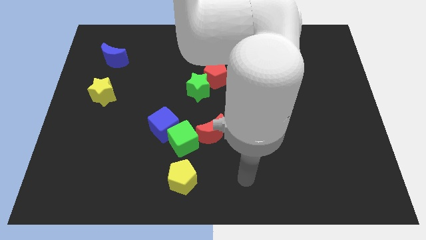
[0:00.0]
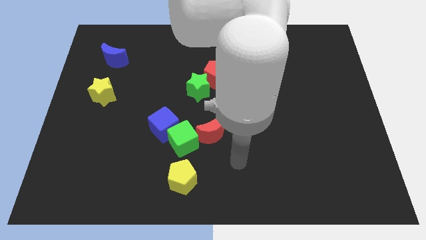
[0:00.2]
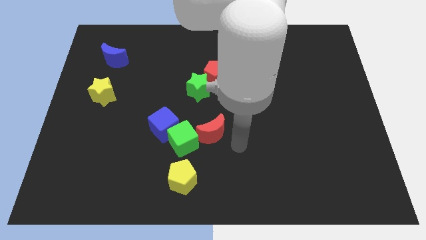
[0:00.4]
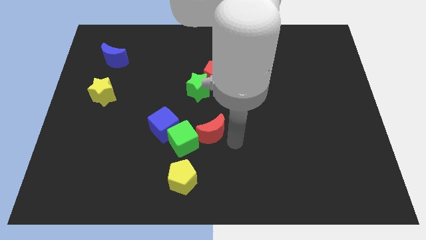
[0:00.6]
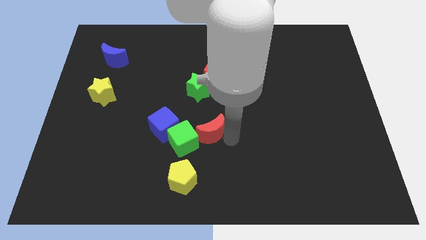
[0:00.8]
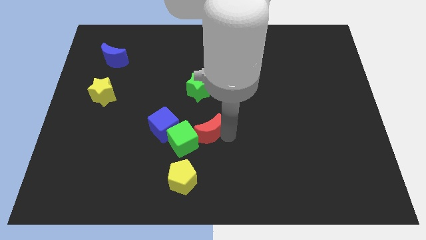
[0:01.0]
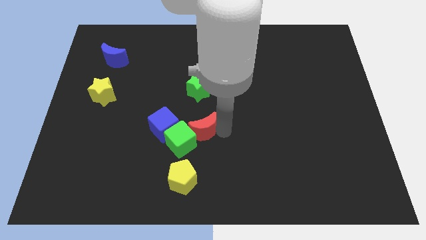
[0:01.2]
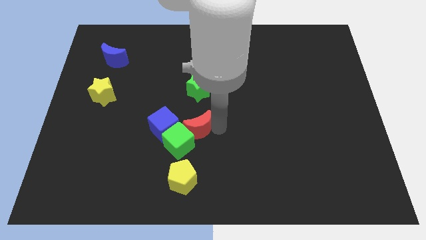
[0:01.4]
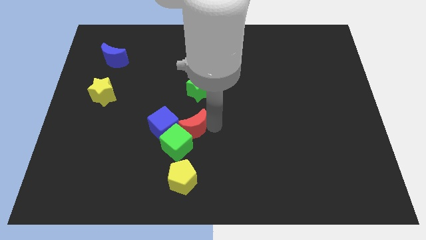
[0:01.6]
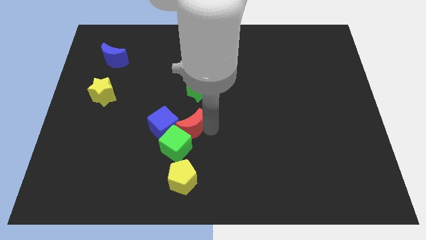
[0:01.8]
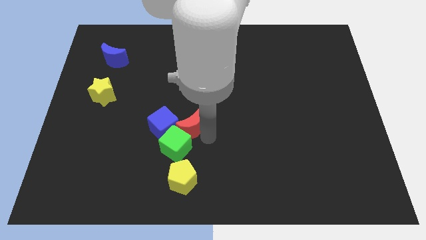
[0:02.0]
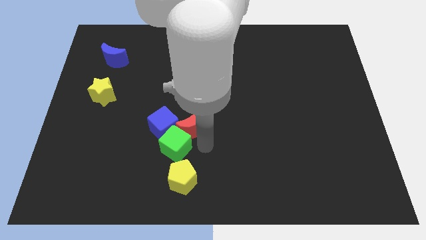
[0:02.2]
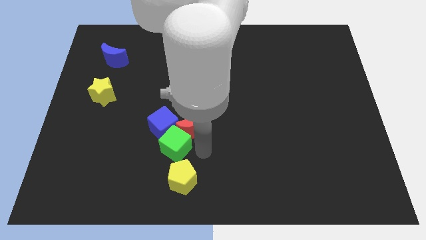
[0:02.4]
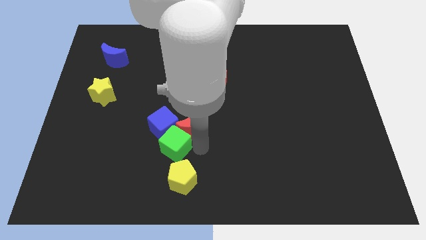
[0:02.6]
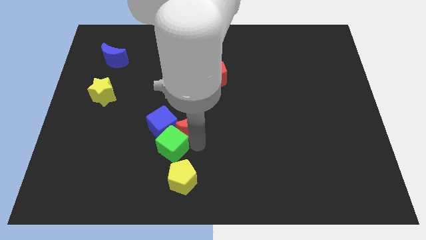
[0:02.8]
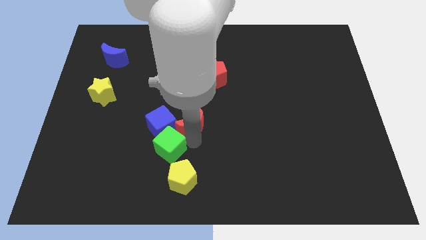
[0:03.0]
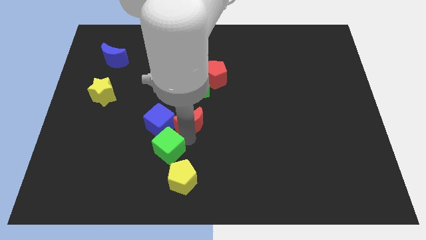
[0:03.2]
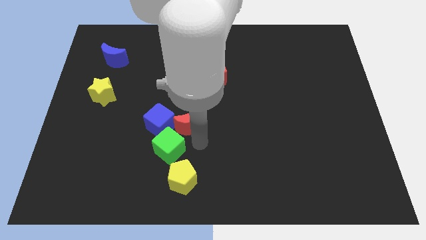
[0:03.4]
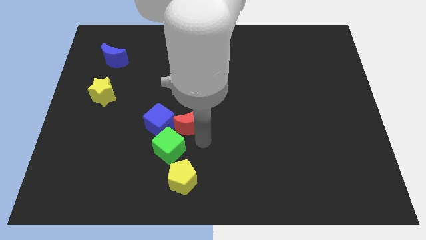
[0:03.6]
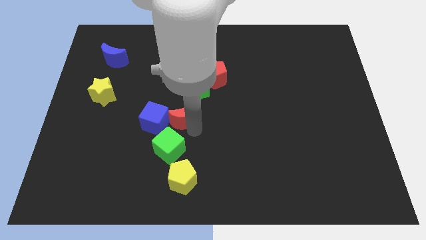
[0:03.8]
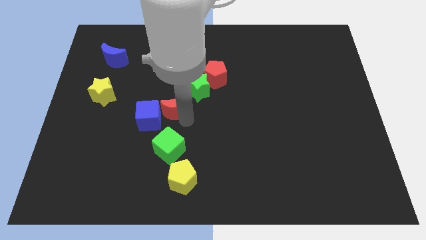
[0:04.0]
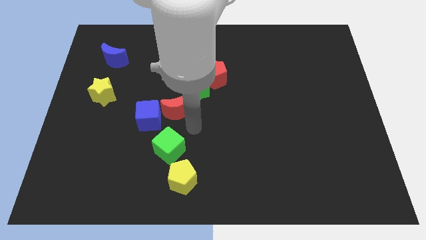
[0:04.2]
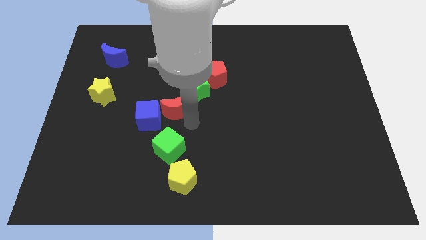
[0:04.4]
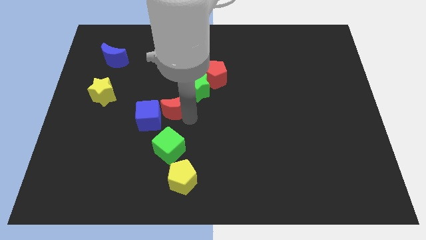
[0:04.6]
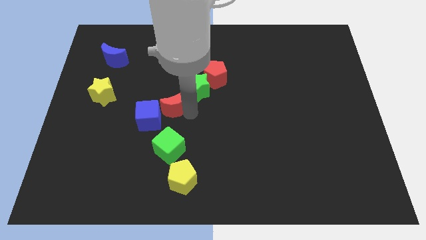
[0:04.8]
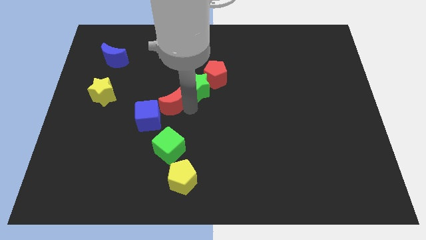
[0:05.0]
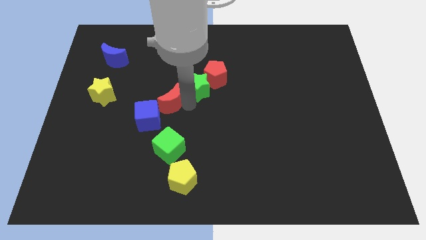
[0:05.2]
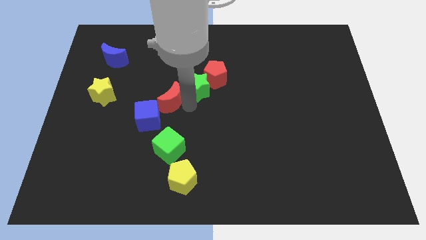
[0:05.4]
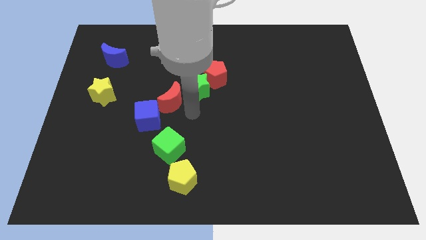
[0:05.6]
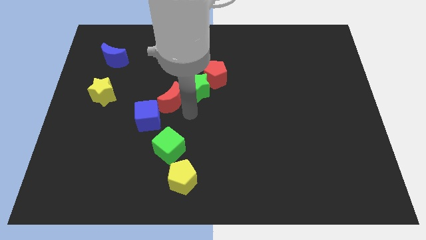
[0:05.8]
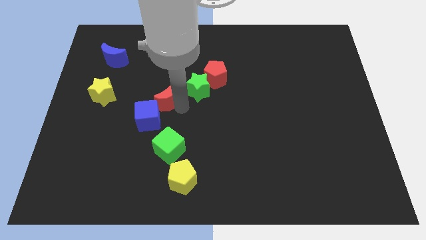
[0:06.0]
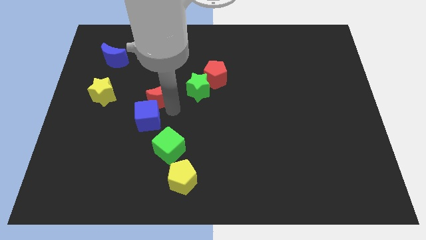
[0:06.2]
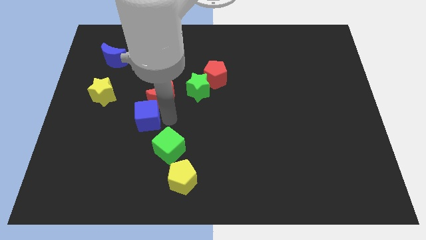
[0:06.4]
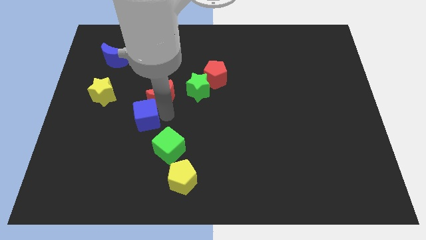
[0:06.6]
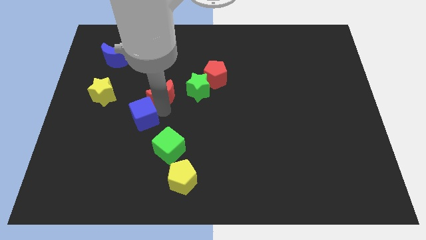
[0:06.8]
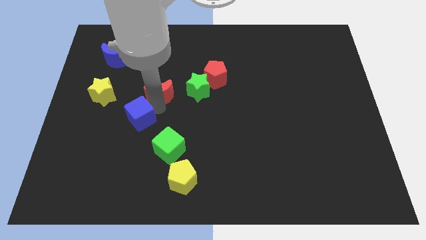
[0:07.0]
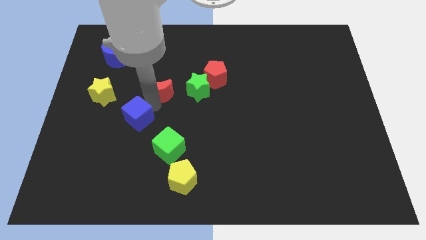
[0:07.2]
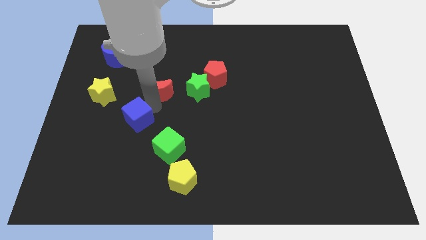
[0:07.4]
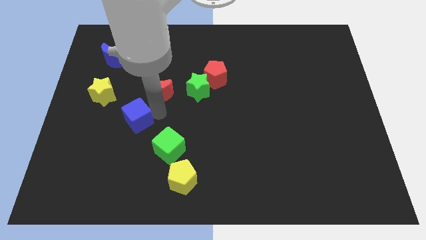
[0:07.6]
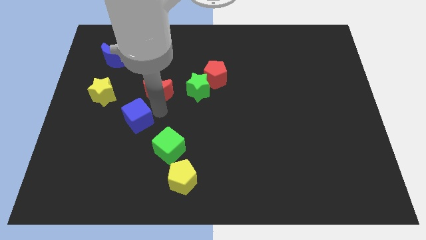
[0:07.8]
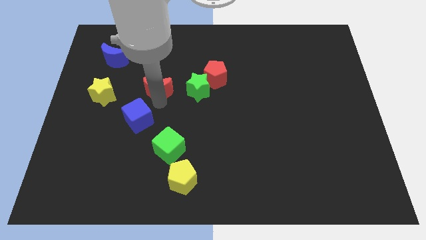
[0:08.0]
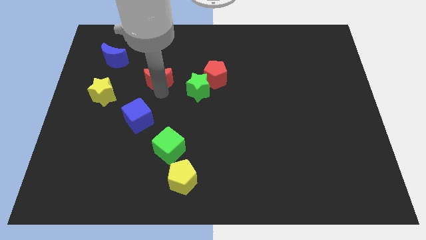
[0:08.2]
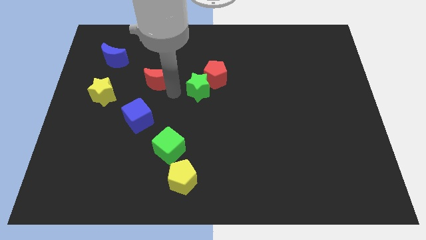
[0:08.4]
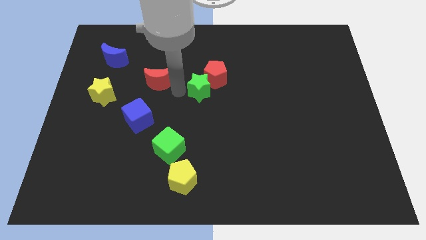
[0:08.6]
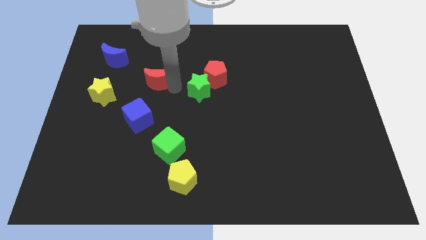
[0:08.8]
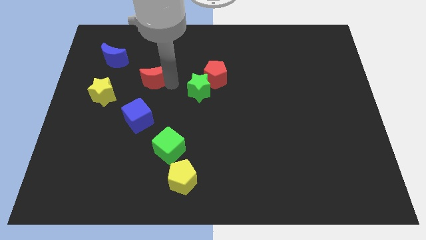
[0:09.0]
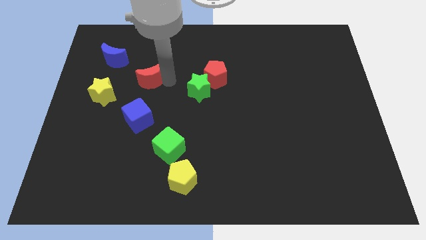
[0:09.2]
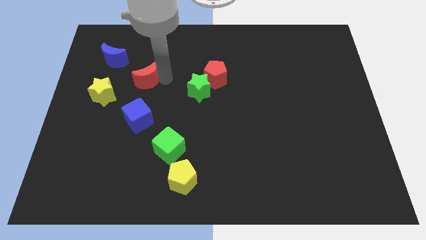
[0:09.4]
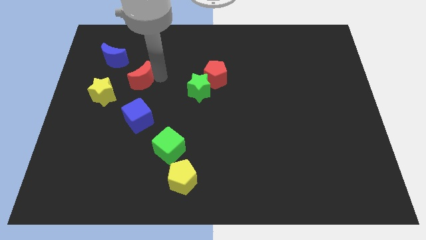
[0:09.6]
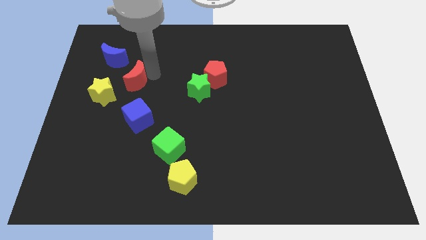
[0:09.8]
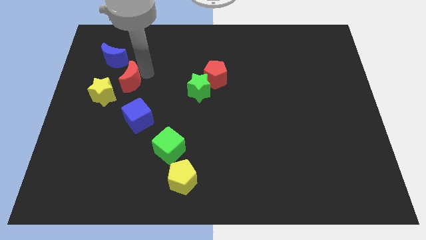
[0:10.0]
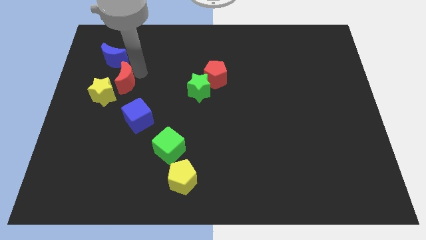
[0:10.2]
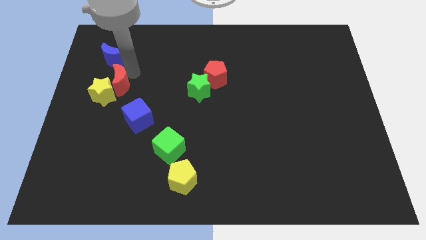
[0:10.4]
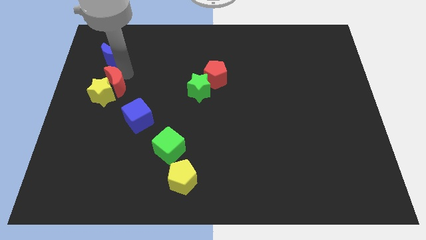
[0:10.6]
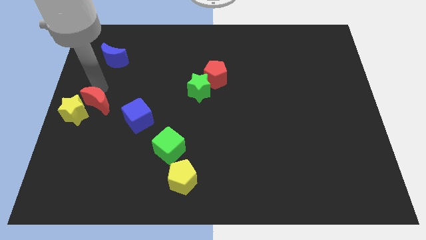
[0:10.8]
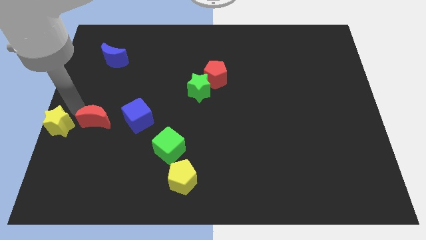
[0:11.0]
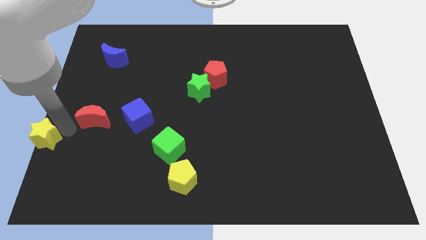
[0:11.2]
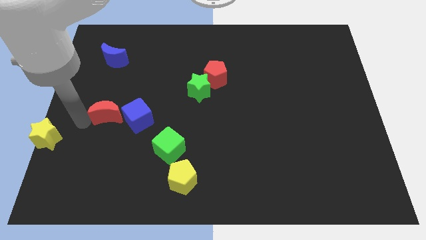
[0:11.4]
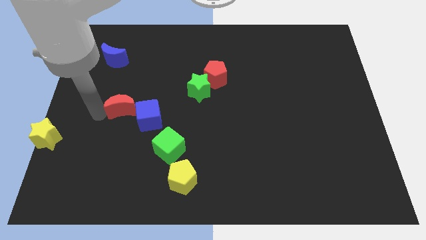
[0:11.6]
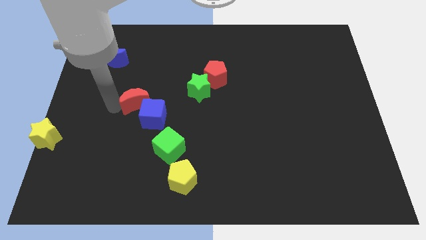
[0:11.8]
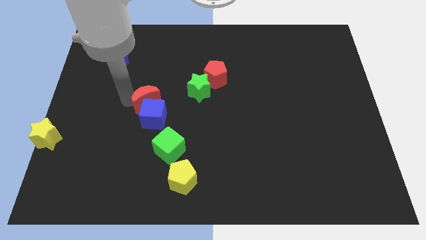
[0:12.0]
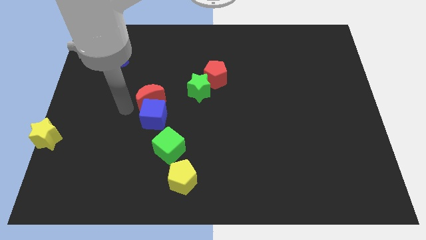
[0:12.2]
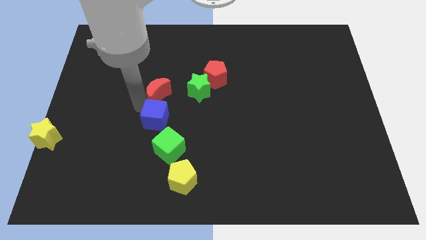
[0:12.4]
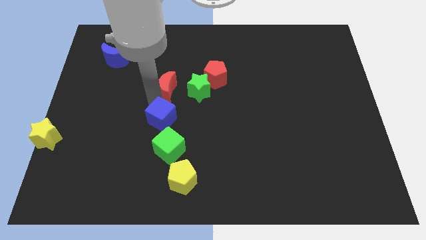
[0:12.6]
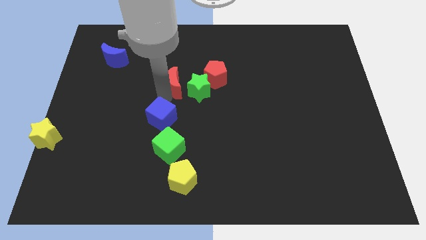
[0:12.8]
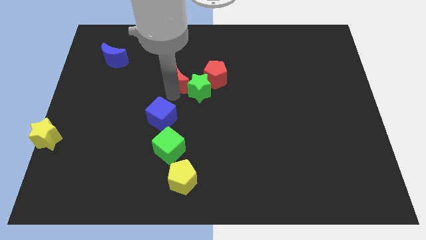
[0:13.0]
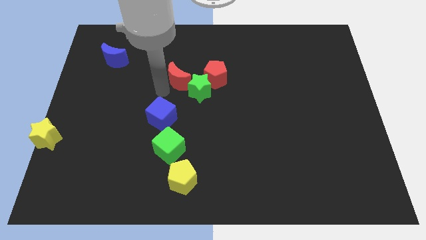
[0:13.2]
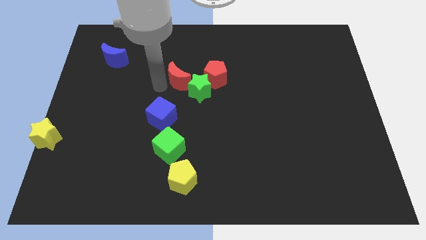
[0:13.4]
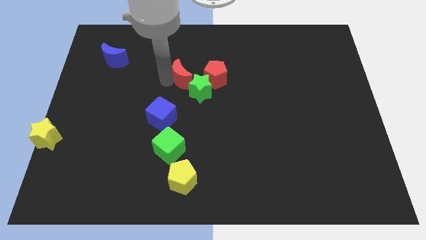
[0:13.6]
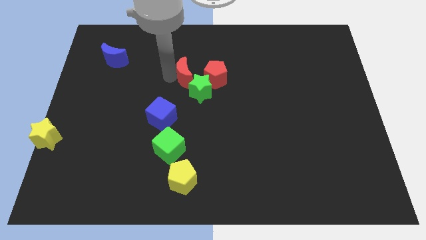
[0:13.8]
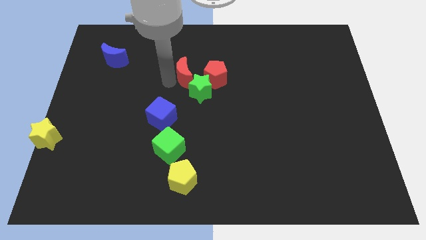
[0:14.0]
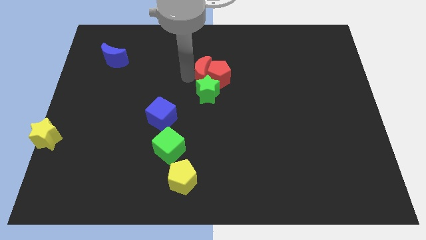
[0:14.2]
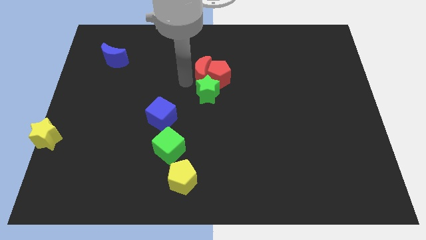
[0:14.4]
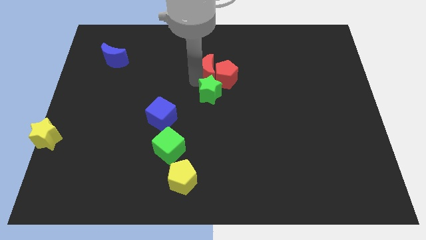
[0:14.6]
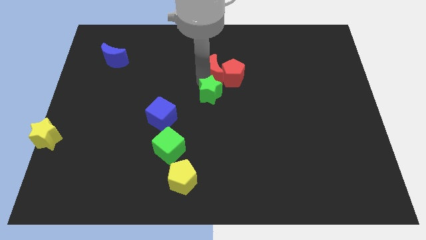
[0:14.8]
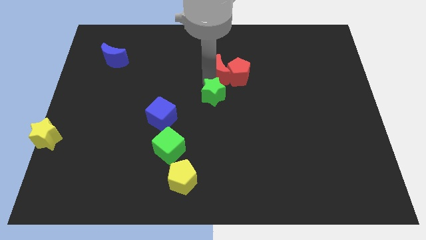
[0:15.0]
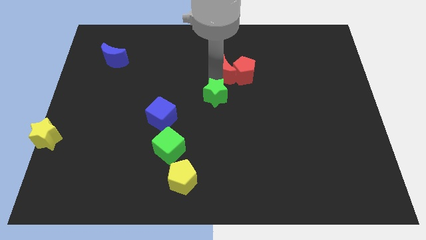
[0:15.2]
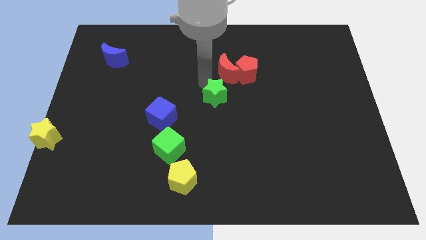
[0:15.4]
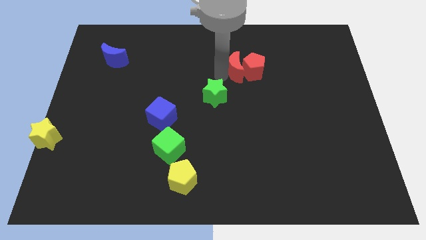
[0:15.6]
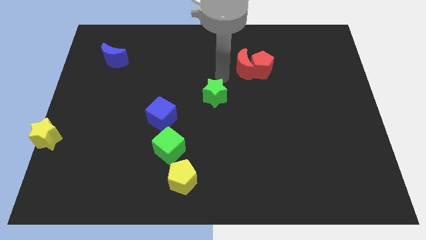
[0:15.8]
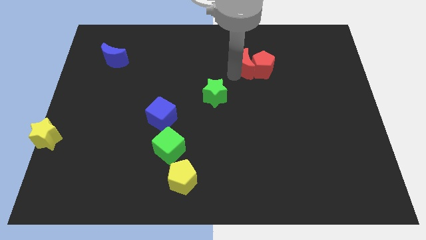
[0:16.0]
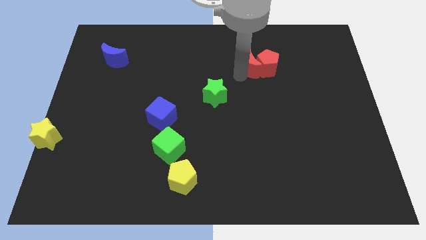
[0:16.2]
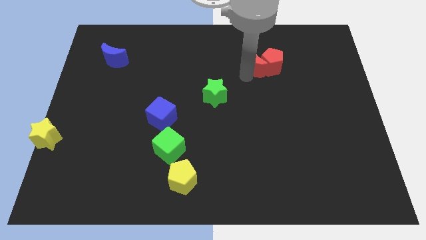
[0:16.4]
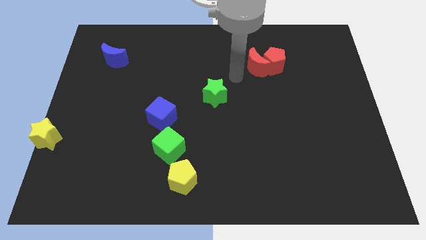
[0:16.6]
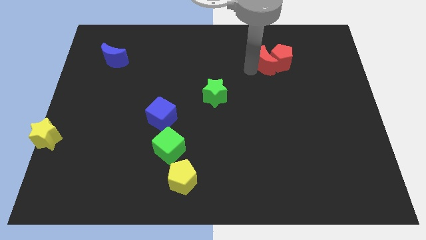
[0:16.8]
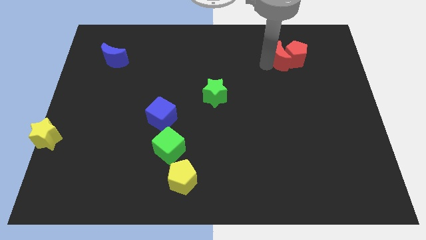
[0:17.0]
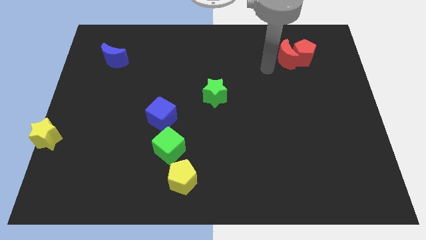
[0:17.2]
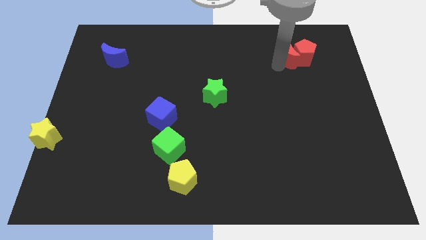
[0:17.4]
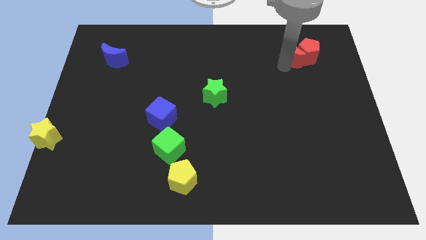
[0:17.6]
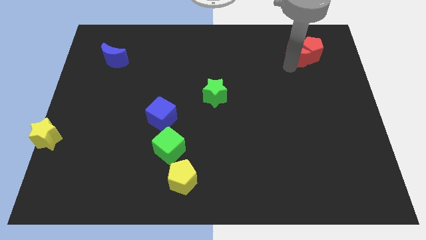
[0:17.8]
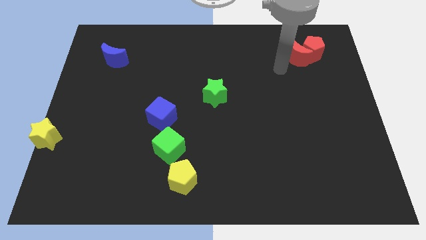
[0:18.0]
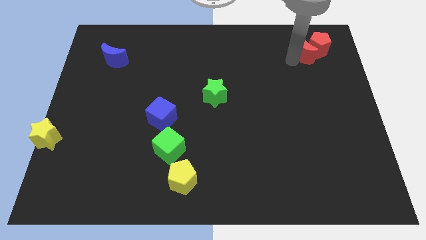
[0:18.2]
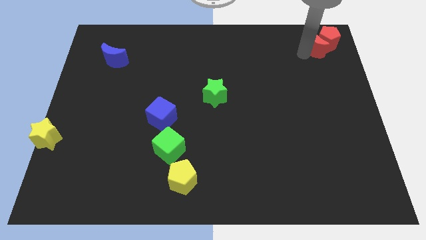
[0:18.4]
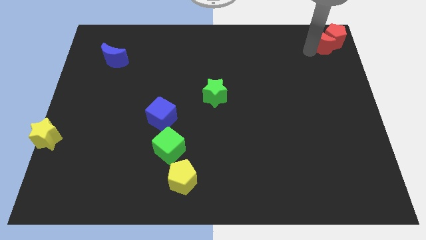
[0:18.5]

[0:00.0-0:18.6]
slide the red moon to the top right
